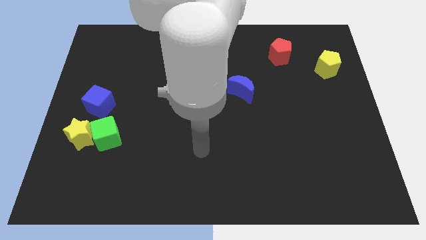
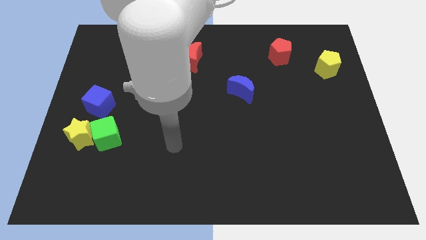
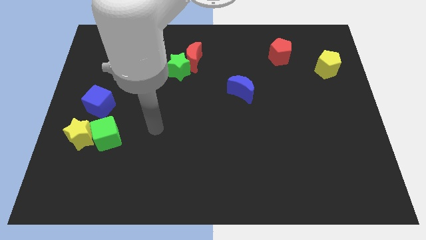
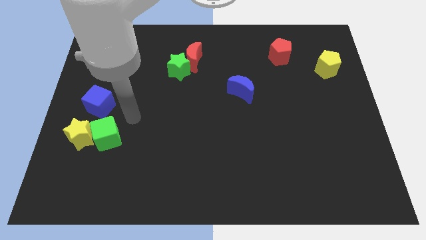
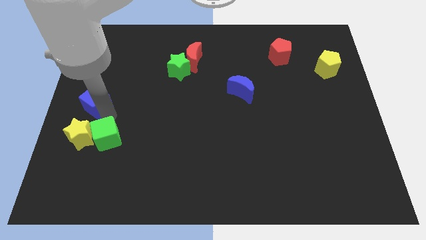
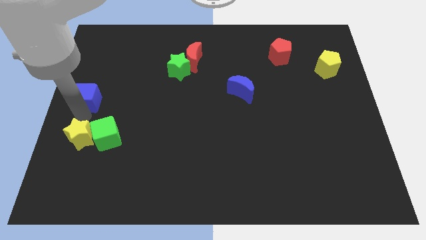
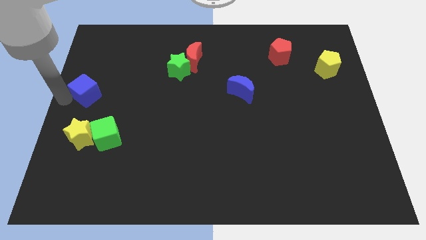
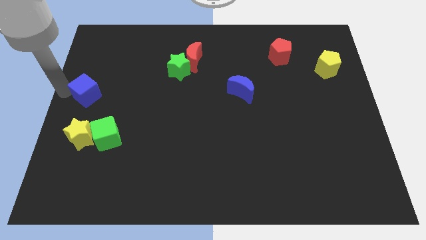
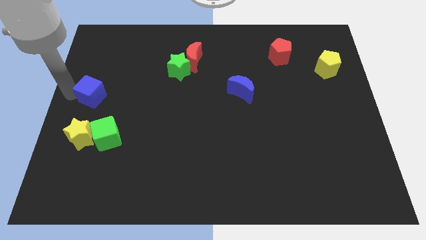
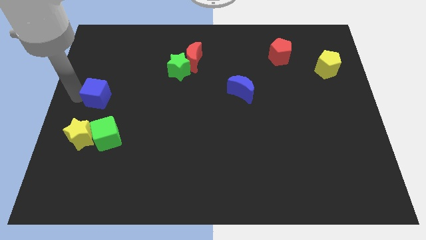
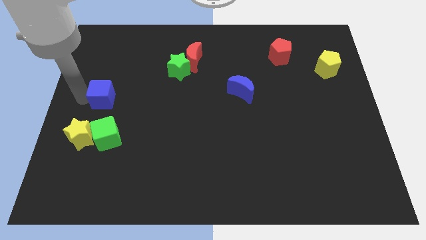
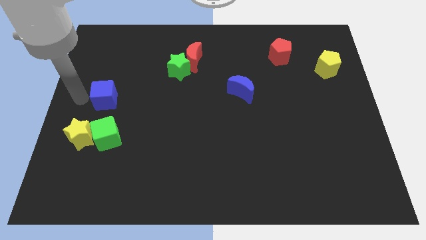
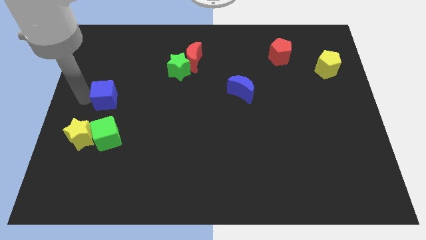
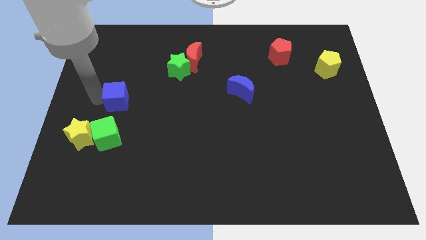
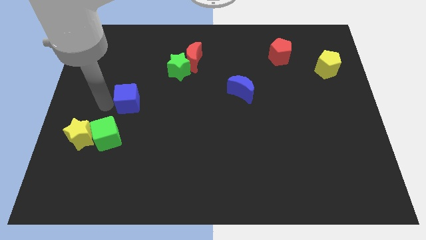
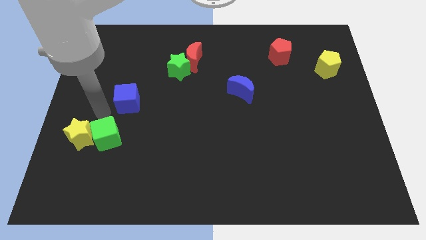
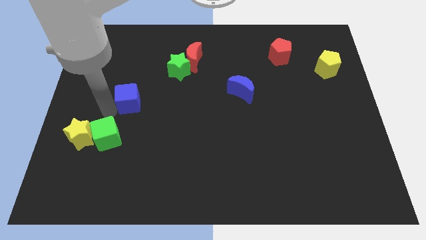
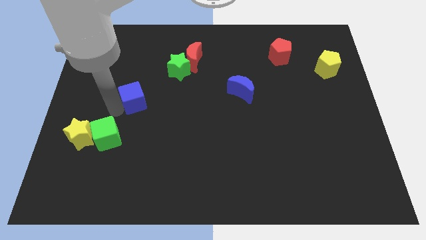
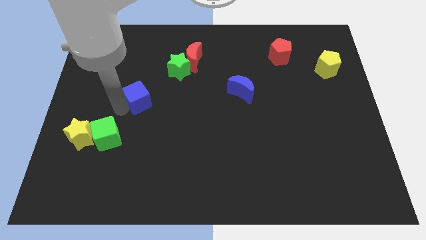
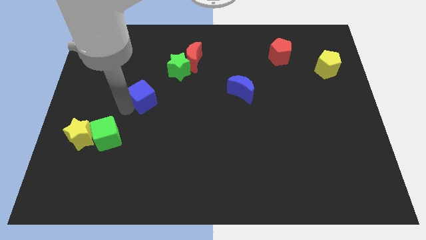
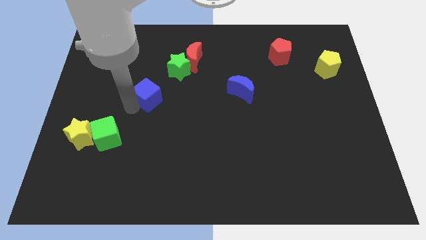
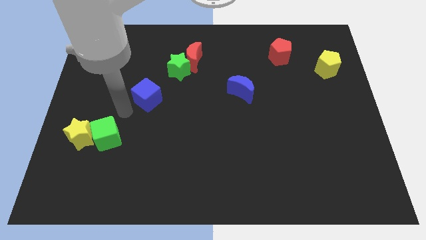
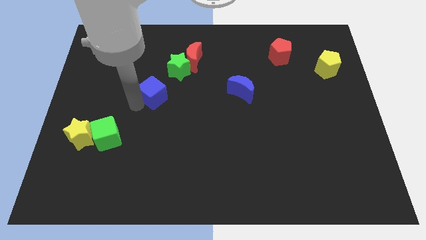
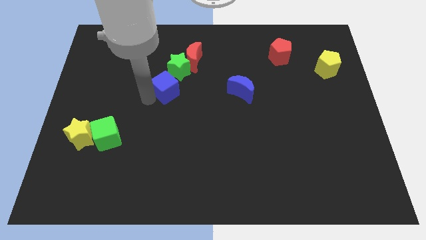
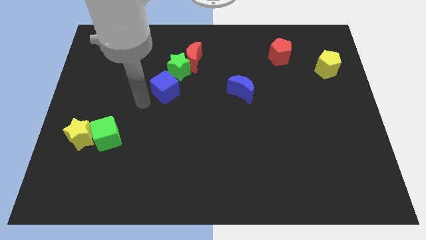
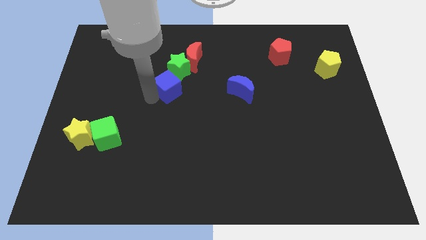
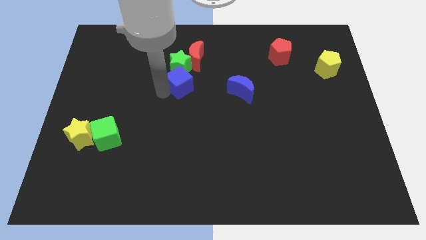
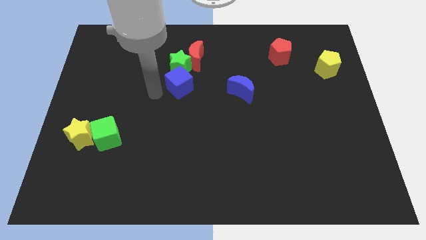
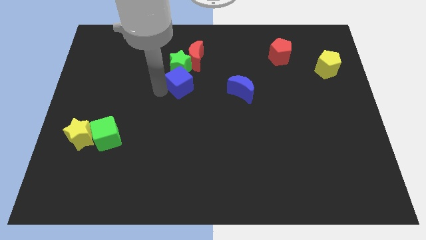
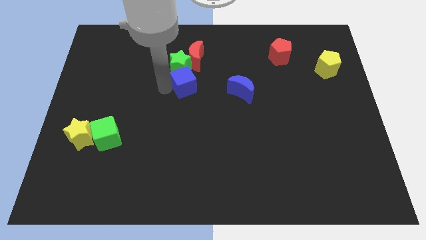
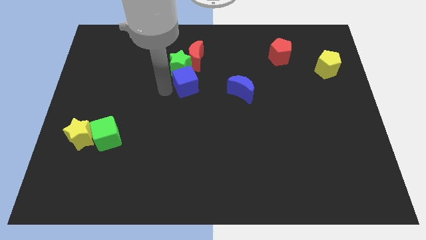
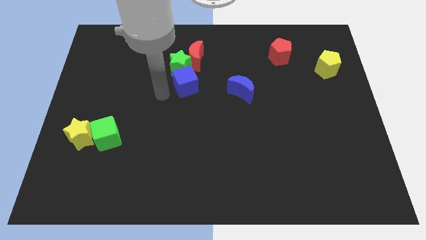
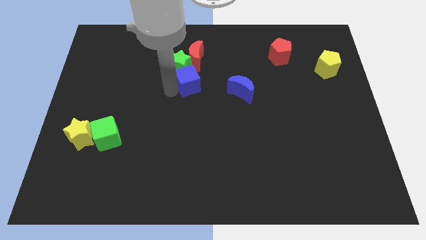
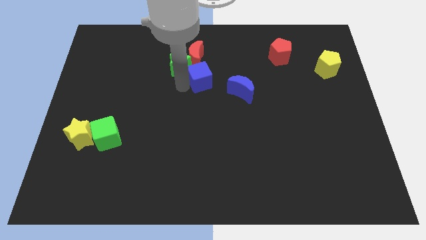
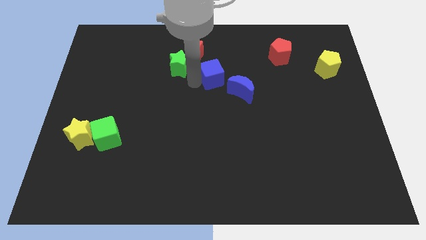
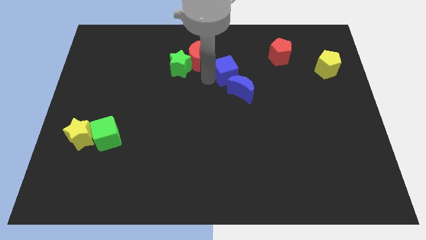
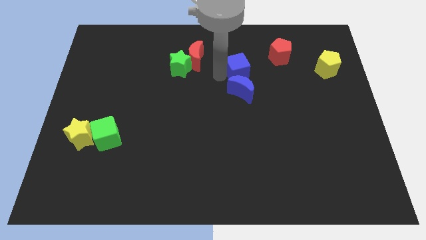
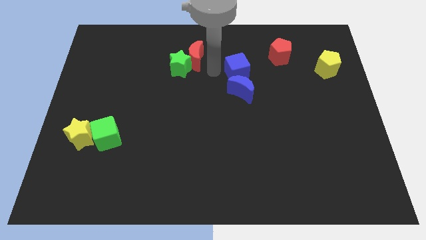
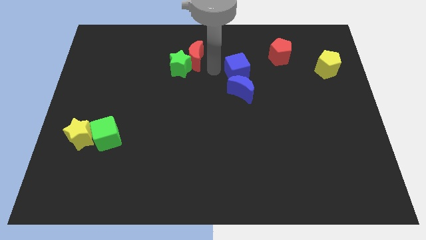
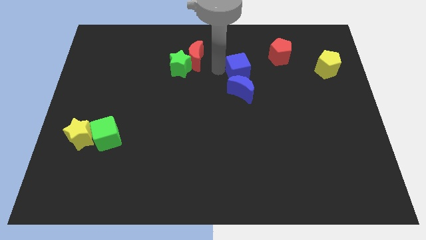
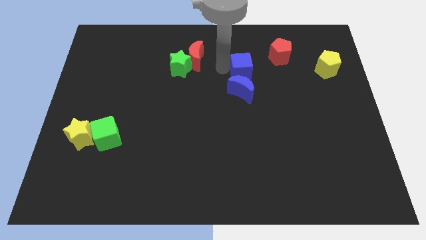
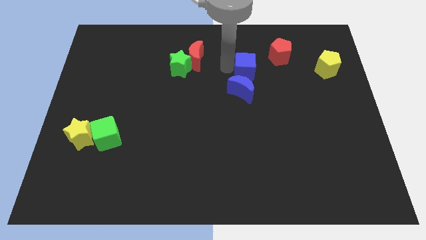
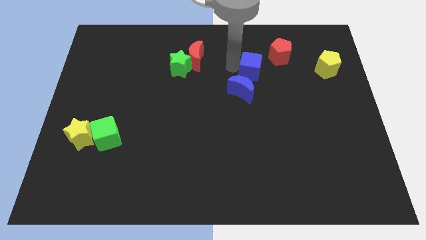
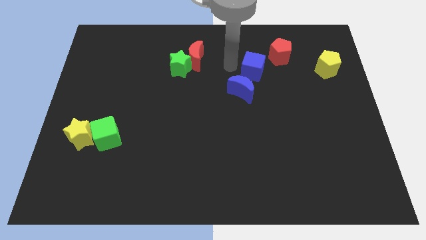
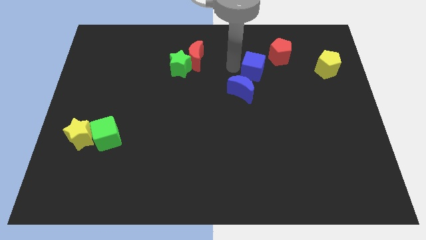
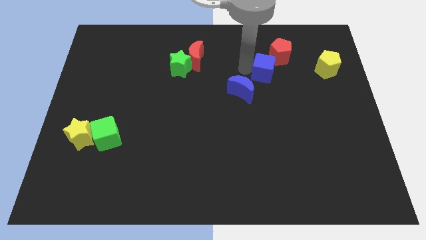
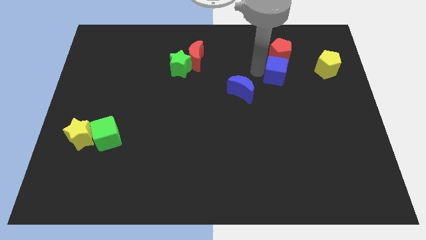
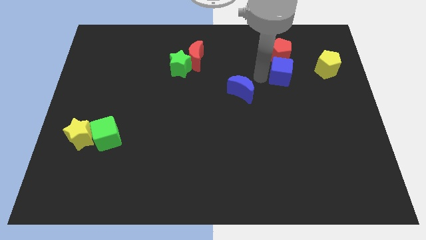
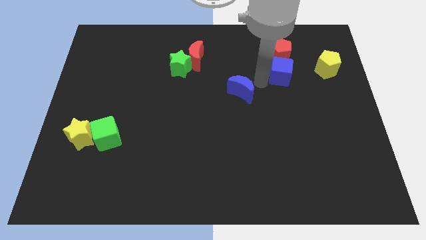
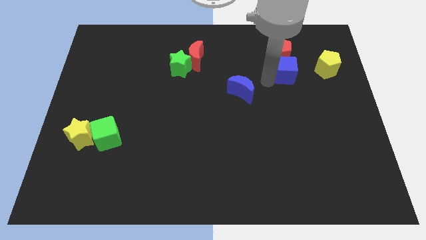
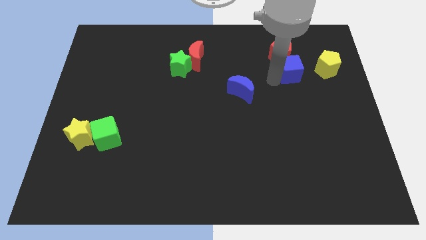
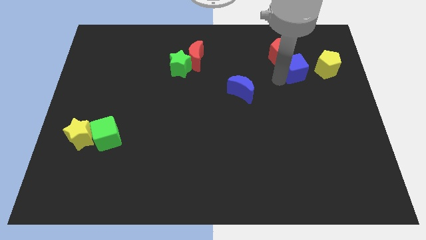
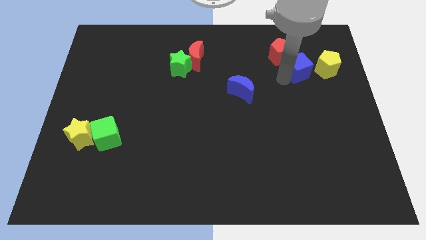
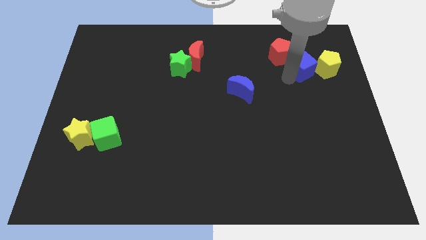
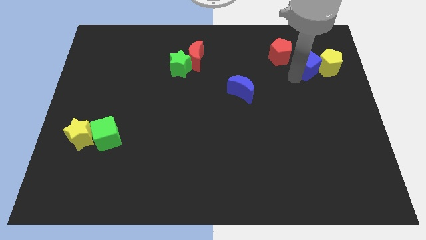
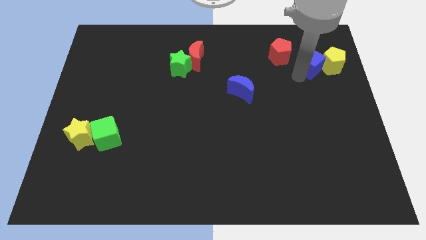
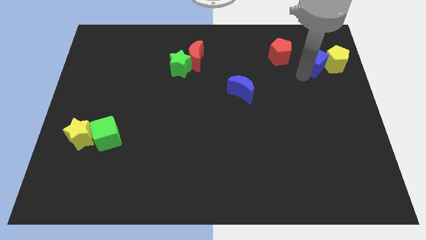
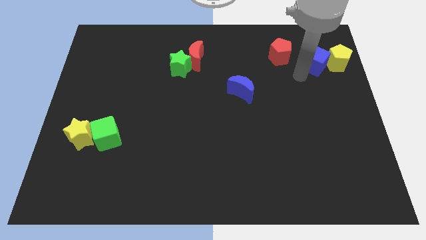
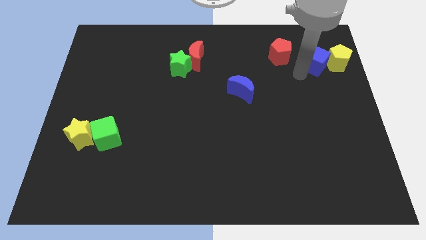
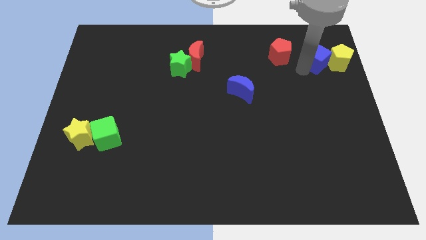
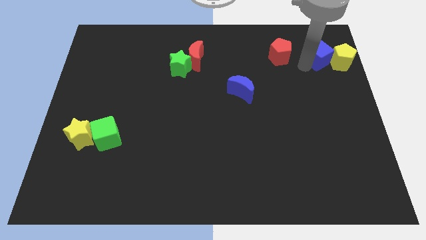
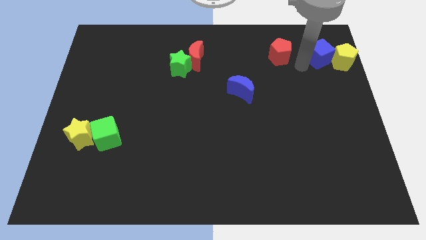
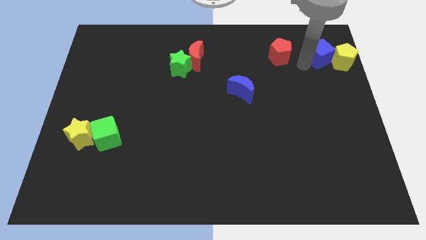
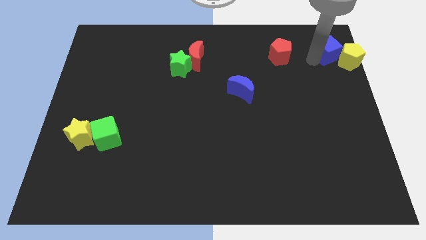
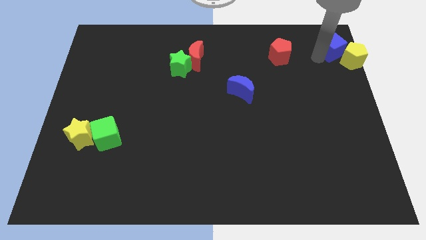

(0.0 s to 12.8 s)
move the blue cube to the top right corner
